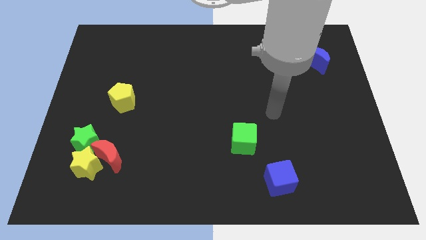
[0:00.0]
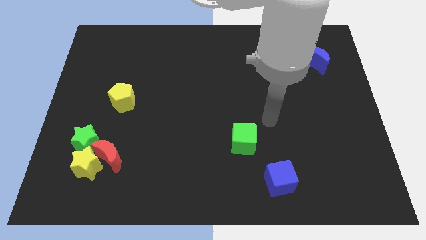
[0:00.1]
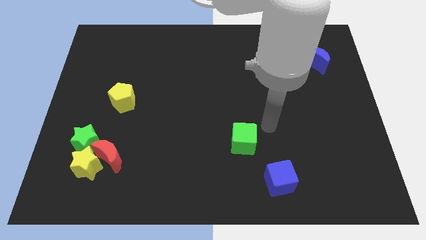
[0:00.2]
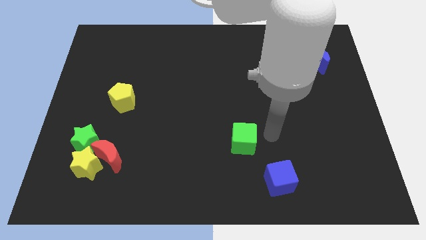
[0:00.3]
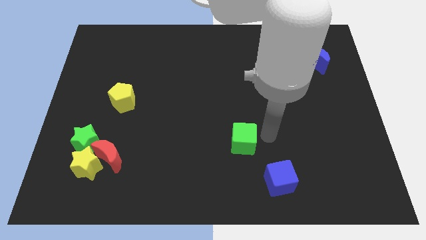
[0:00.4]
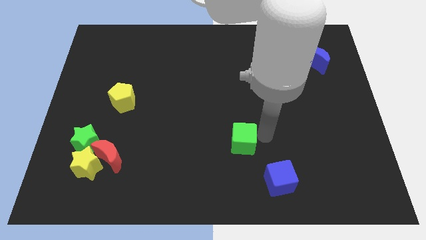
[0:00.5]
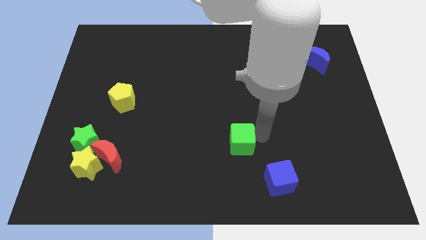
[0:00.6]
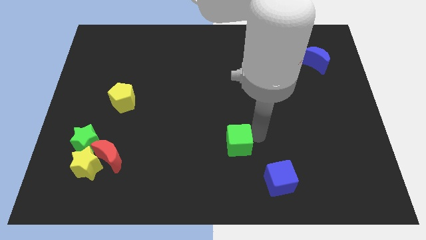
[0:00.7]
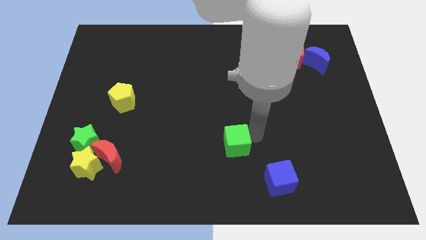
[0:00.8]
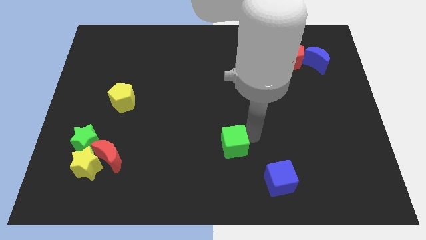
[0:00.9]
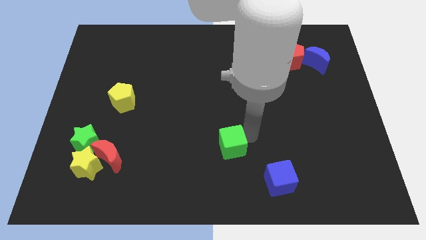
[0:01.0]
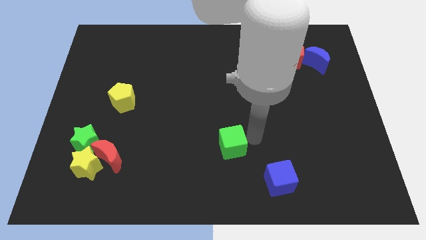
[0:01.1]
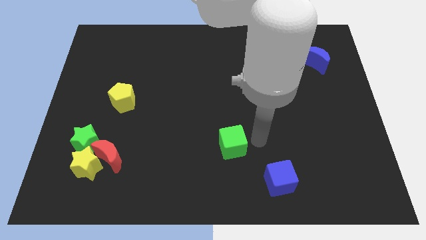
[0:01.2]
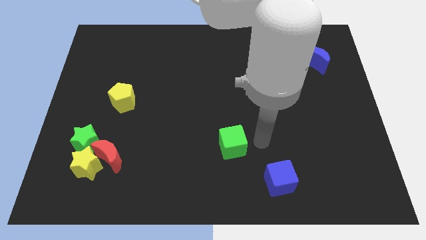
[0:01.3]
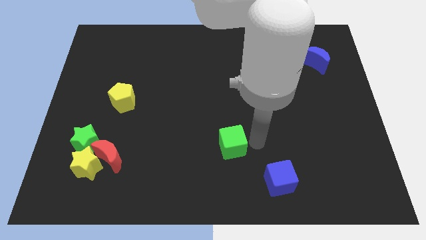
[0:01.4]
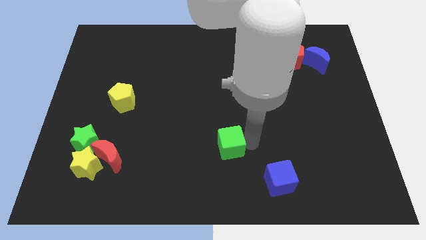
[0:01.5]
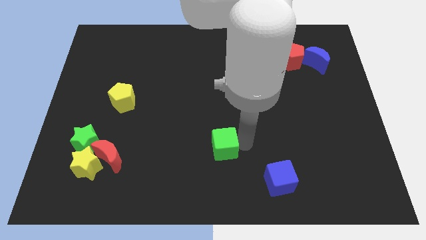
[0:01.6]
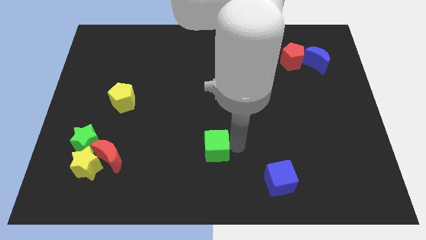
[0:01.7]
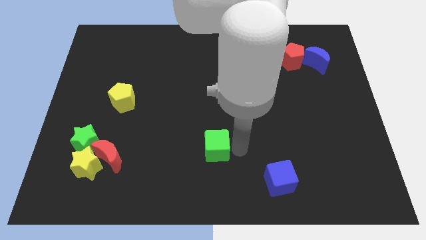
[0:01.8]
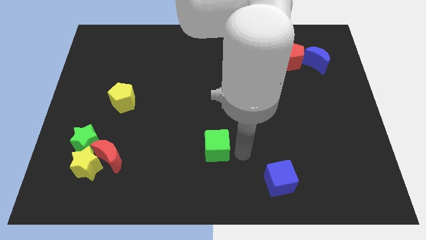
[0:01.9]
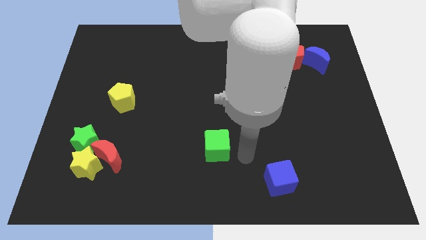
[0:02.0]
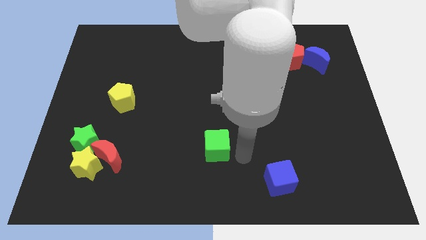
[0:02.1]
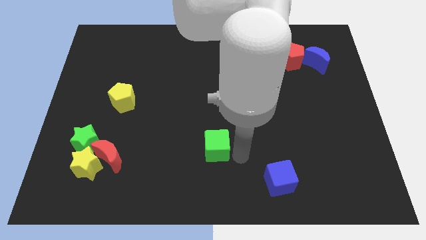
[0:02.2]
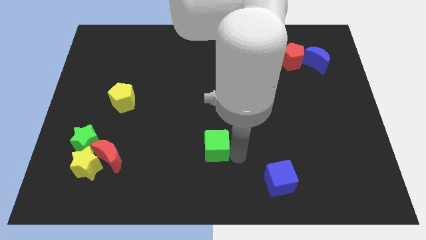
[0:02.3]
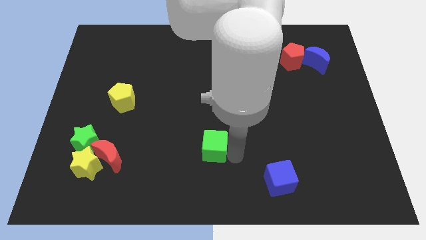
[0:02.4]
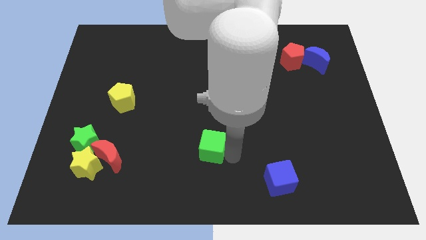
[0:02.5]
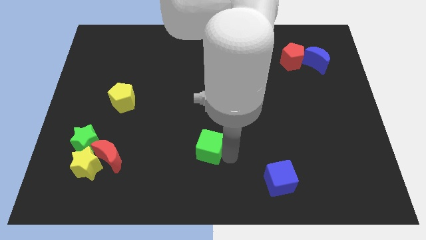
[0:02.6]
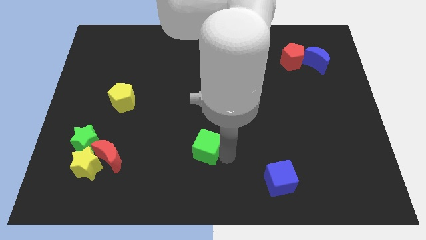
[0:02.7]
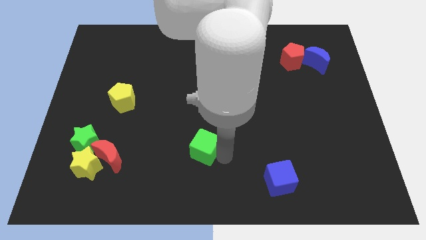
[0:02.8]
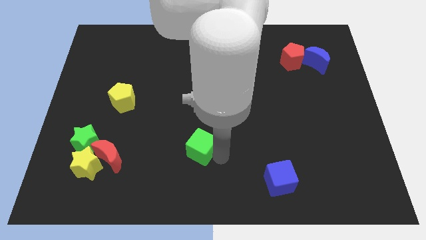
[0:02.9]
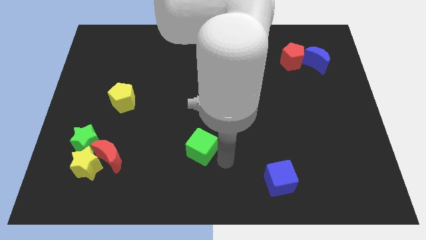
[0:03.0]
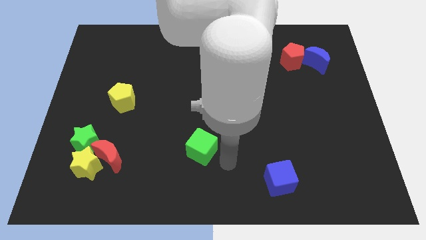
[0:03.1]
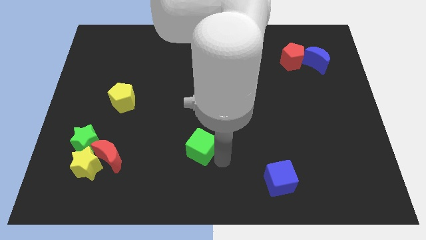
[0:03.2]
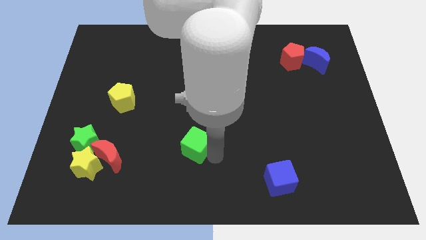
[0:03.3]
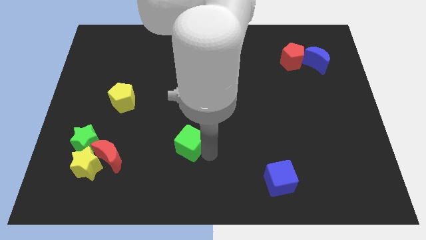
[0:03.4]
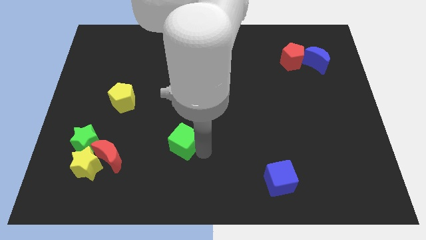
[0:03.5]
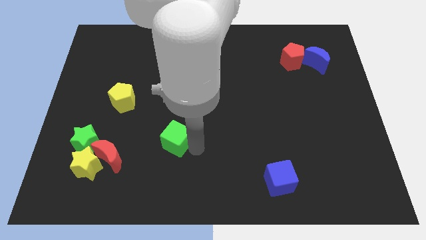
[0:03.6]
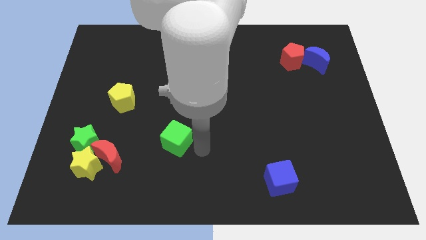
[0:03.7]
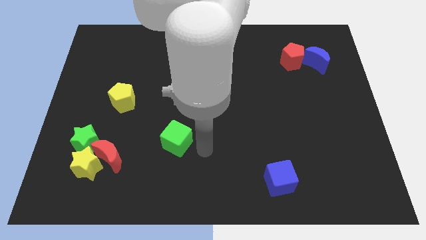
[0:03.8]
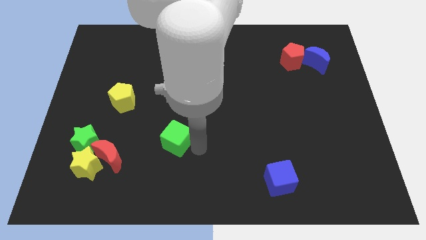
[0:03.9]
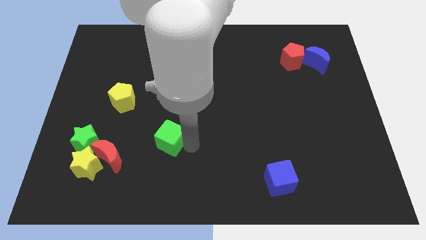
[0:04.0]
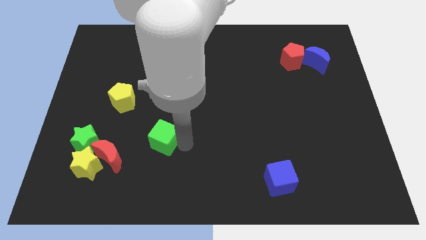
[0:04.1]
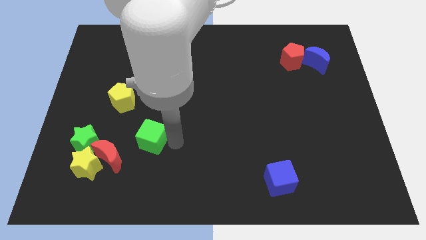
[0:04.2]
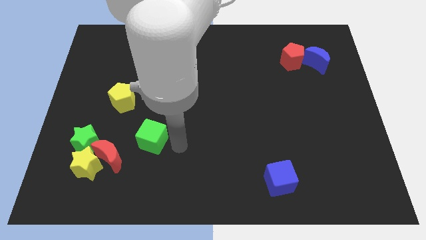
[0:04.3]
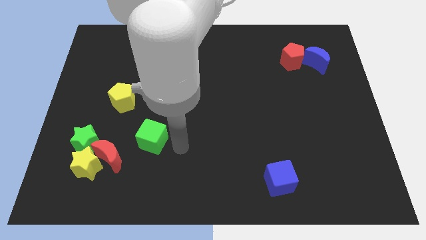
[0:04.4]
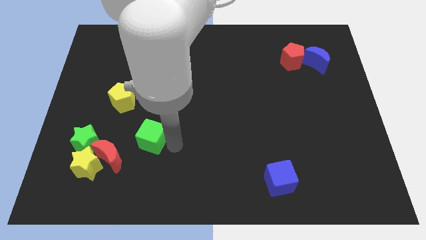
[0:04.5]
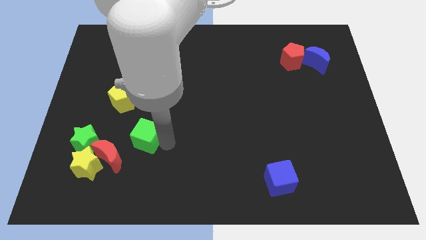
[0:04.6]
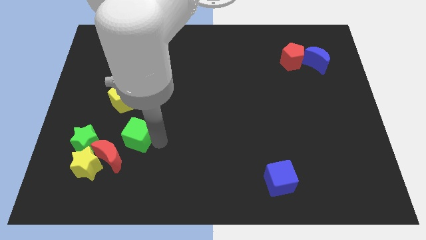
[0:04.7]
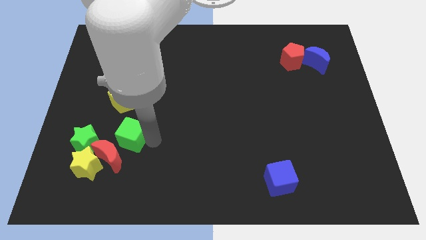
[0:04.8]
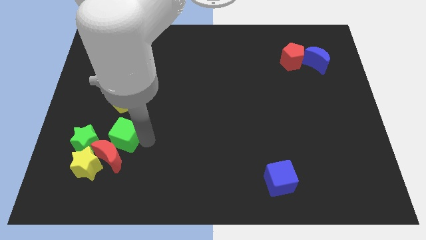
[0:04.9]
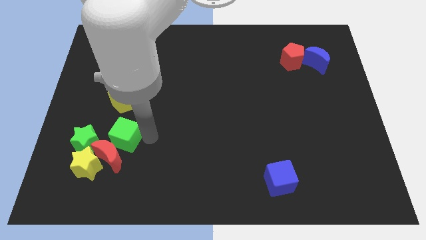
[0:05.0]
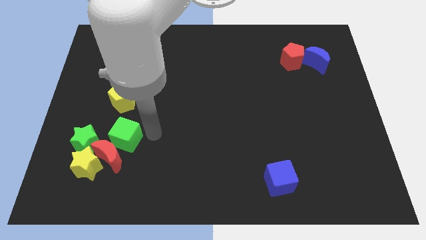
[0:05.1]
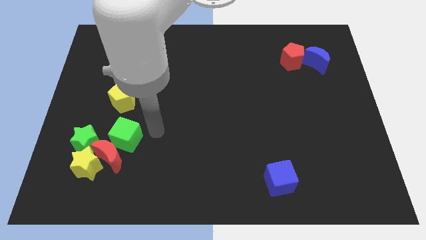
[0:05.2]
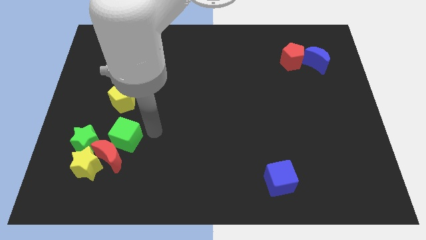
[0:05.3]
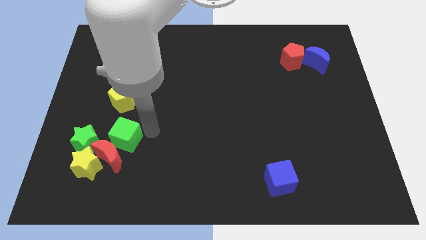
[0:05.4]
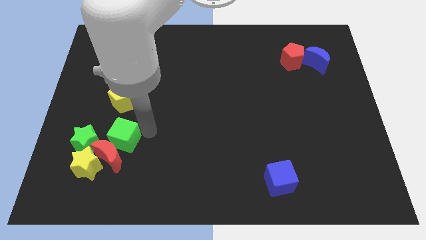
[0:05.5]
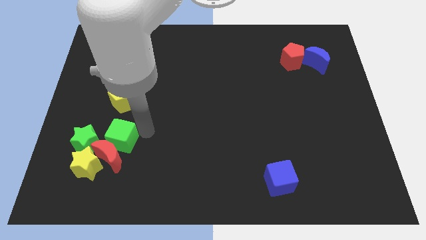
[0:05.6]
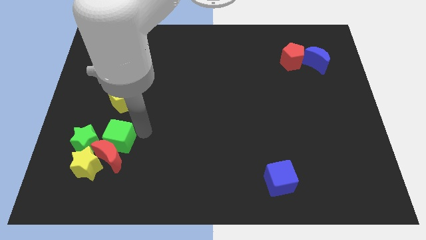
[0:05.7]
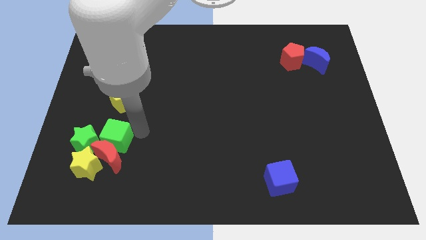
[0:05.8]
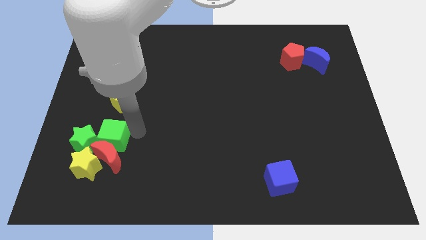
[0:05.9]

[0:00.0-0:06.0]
push the green cube towards the green star

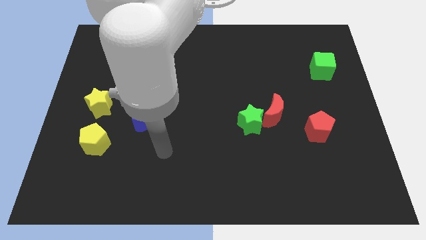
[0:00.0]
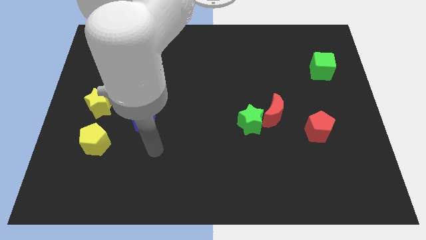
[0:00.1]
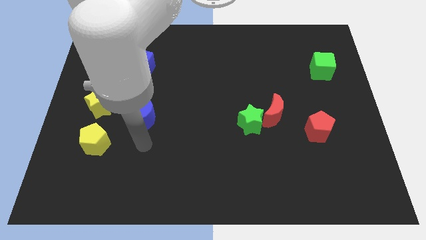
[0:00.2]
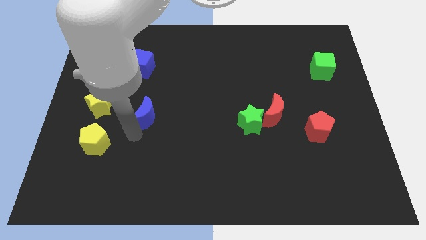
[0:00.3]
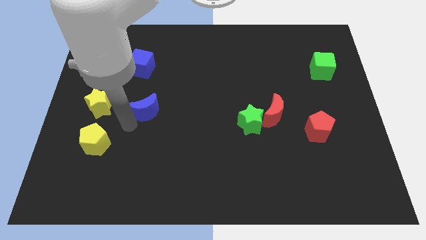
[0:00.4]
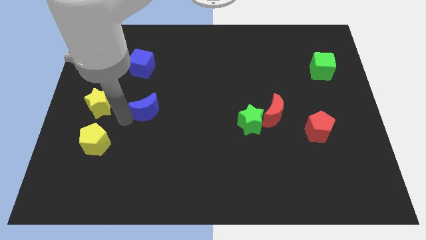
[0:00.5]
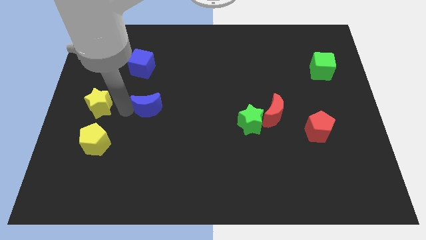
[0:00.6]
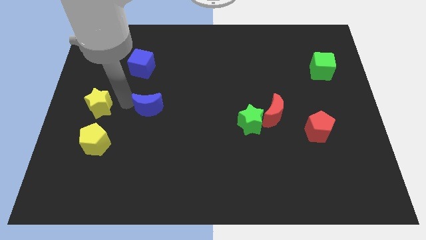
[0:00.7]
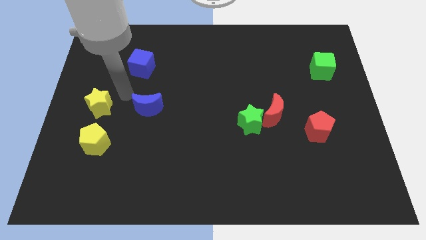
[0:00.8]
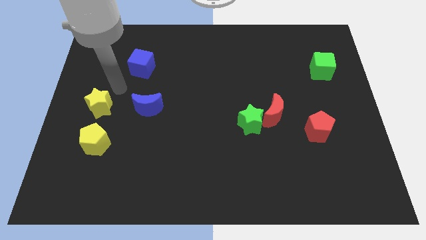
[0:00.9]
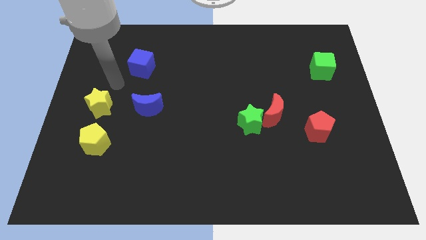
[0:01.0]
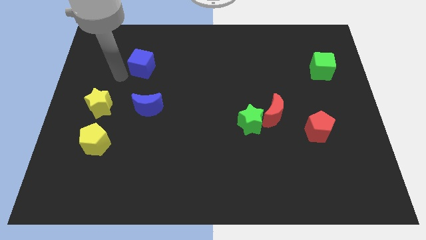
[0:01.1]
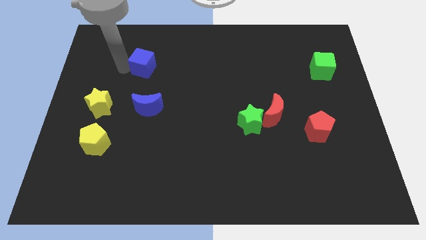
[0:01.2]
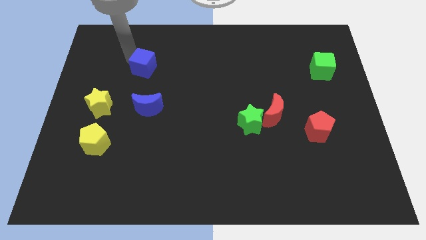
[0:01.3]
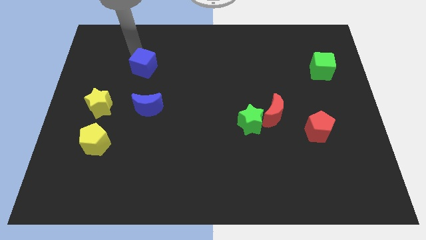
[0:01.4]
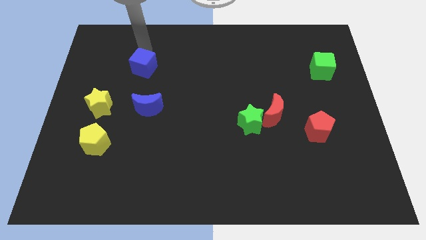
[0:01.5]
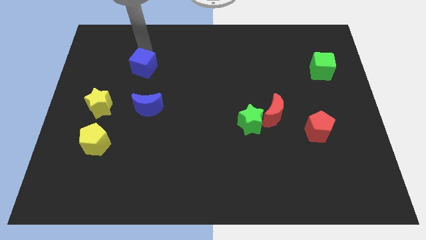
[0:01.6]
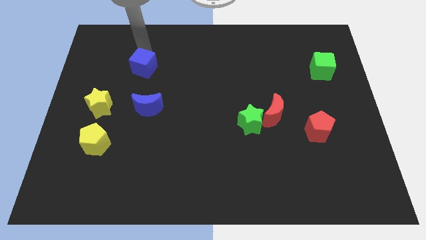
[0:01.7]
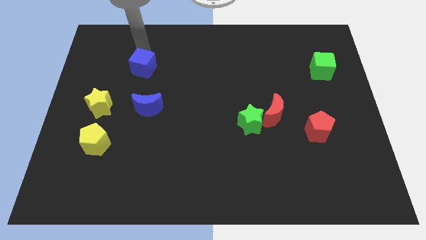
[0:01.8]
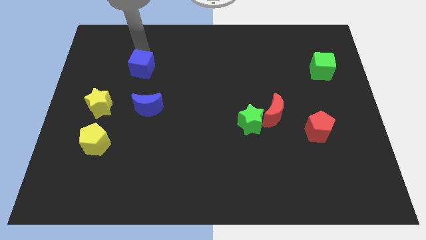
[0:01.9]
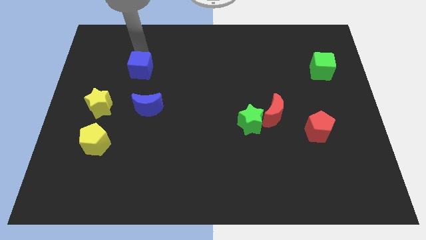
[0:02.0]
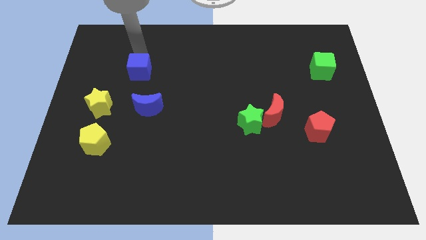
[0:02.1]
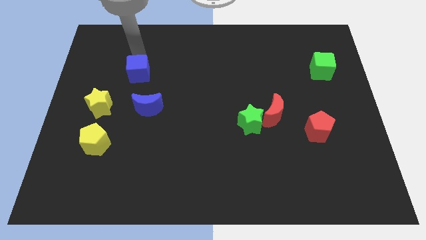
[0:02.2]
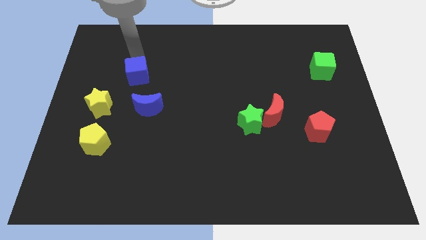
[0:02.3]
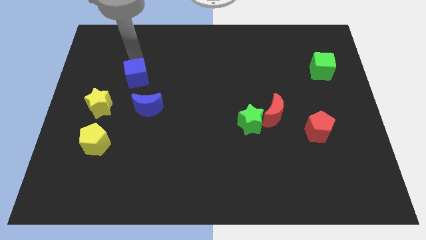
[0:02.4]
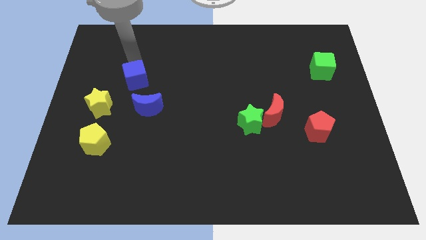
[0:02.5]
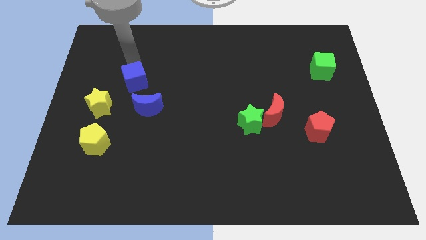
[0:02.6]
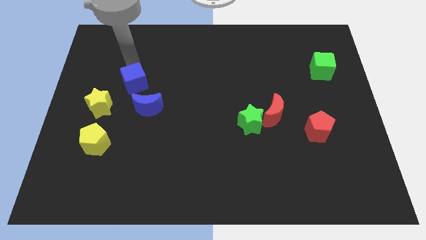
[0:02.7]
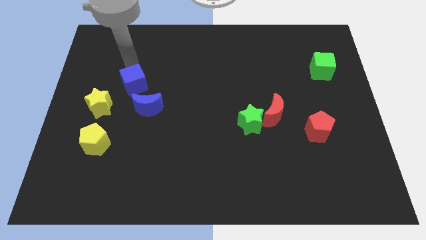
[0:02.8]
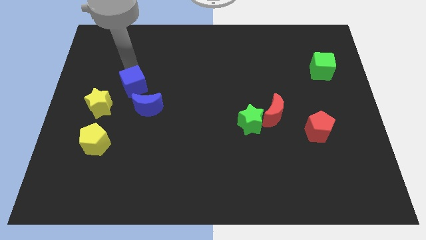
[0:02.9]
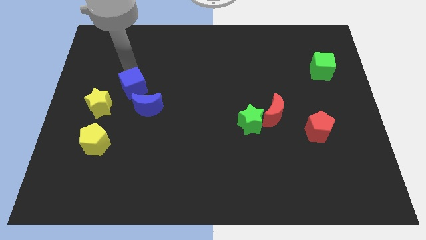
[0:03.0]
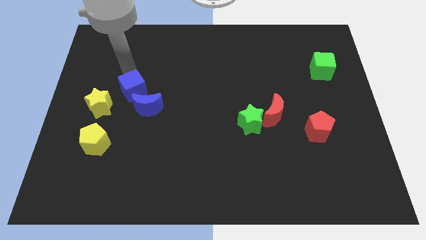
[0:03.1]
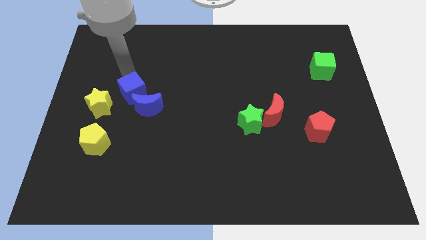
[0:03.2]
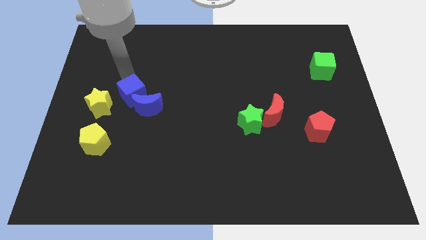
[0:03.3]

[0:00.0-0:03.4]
push the blue cube next to the blue moon
